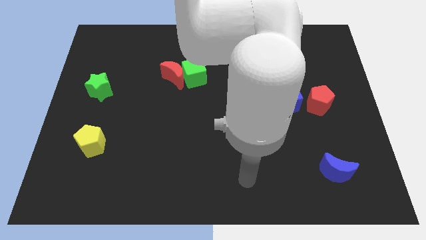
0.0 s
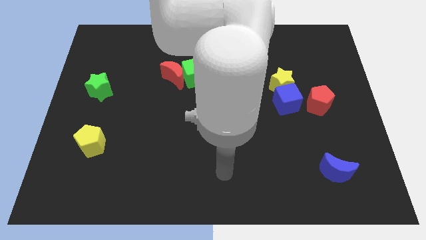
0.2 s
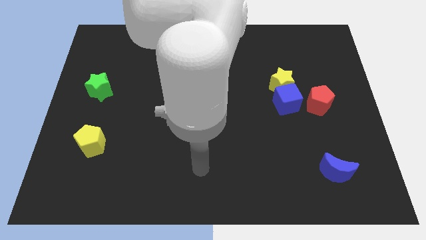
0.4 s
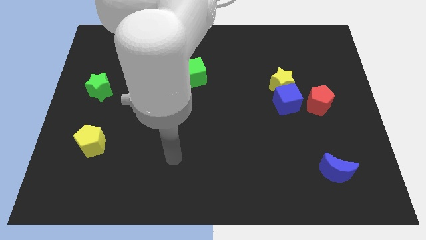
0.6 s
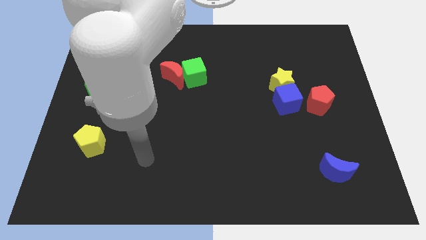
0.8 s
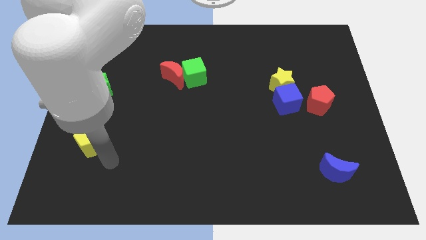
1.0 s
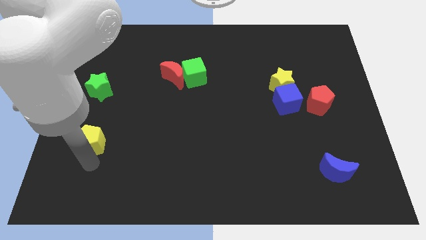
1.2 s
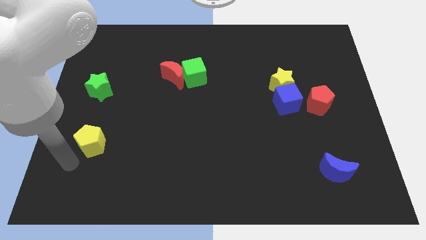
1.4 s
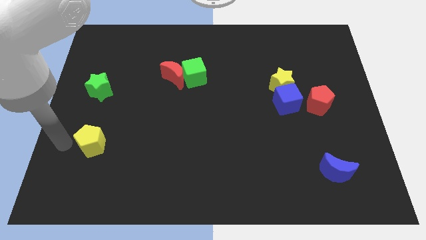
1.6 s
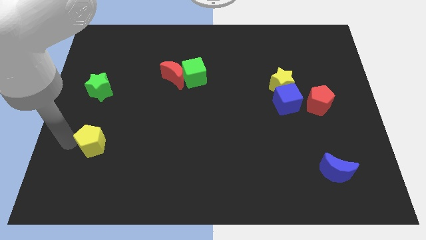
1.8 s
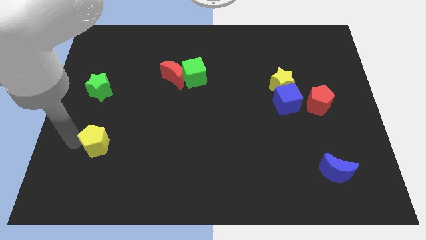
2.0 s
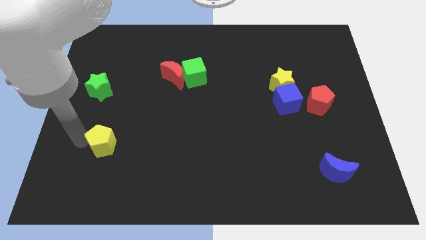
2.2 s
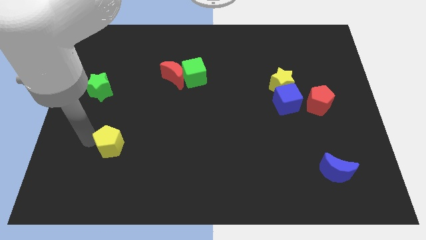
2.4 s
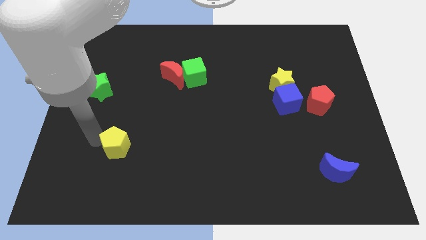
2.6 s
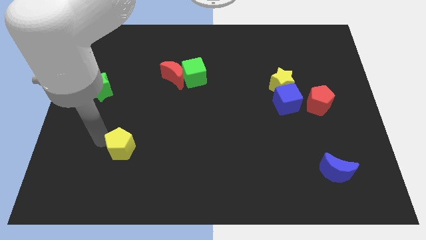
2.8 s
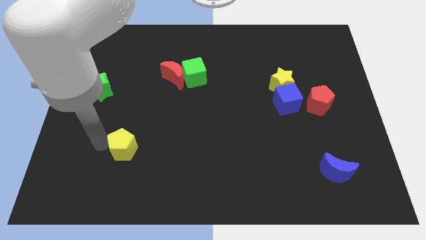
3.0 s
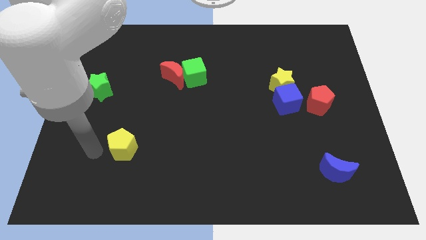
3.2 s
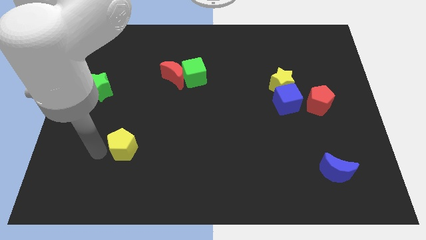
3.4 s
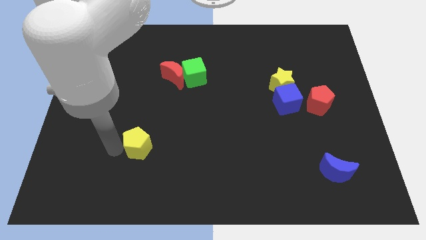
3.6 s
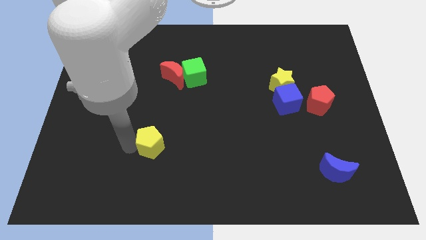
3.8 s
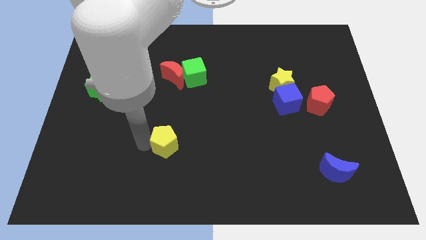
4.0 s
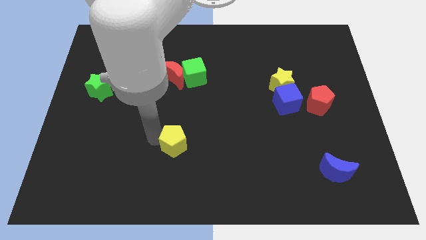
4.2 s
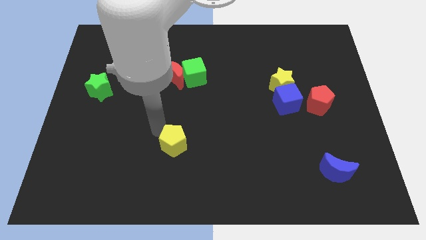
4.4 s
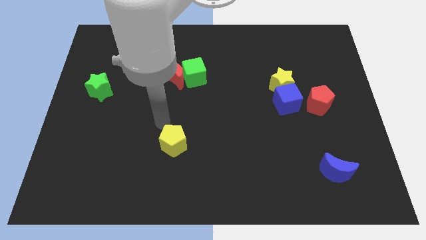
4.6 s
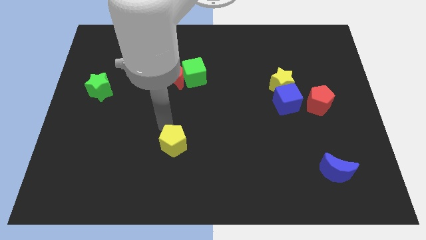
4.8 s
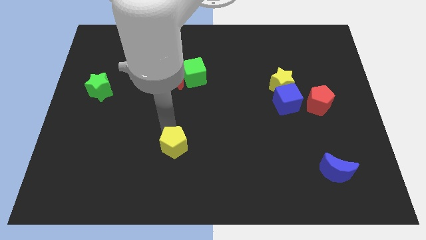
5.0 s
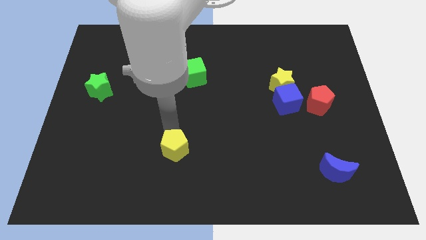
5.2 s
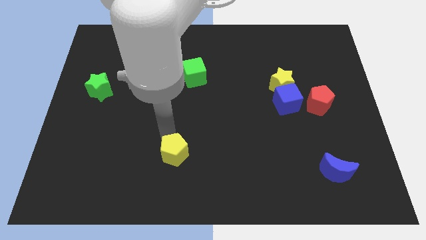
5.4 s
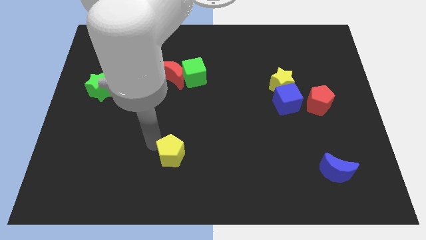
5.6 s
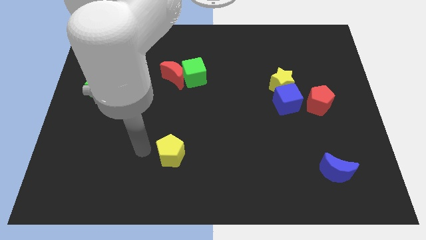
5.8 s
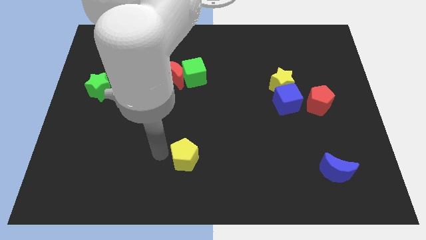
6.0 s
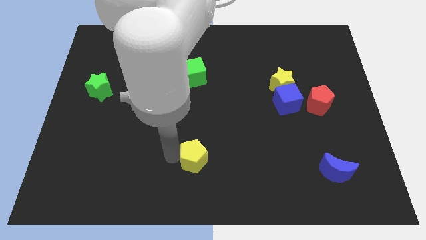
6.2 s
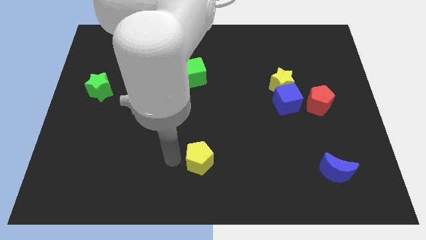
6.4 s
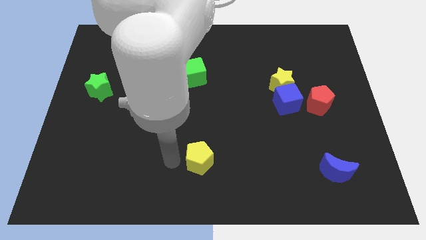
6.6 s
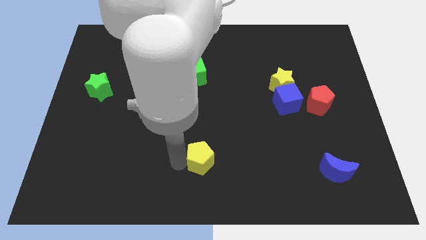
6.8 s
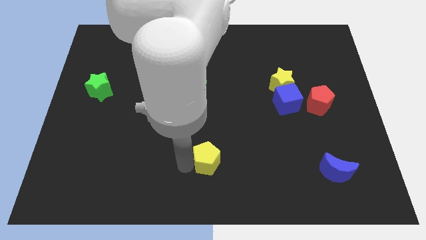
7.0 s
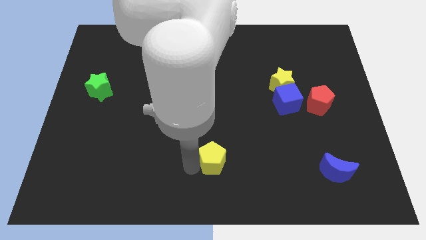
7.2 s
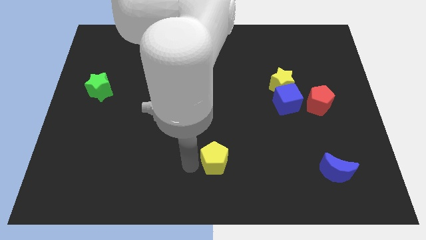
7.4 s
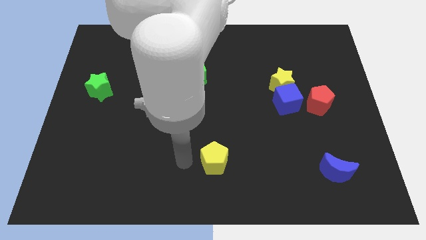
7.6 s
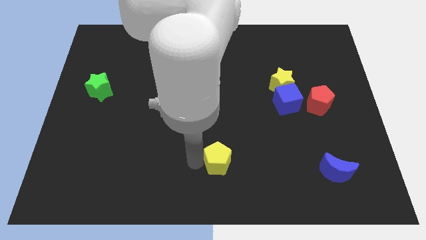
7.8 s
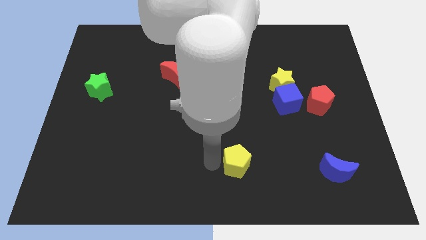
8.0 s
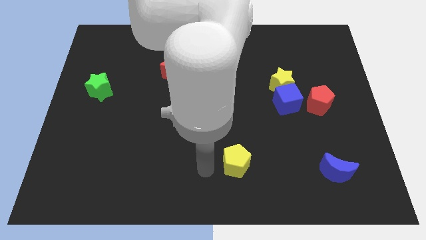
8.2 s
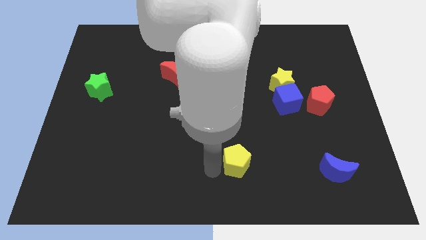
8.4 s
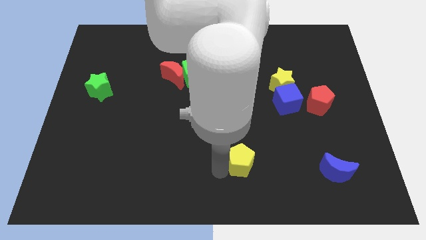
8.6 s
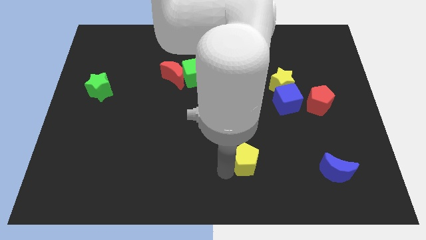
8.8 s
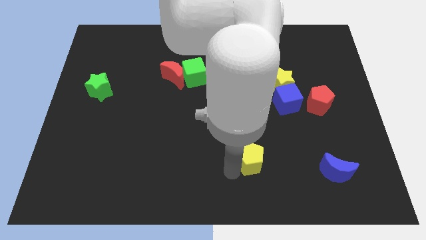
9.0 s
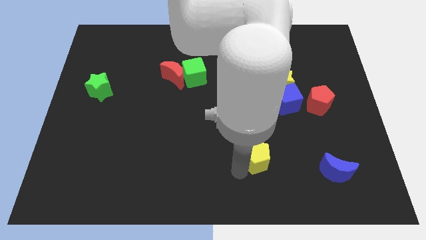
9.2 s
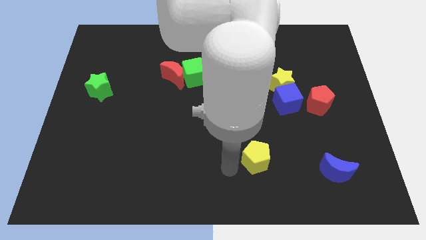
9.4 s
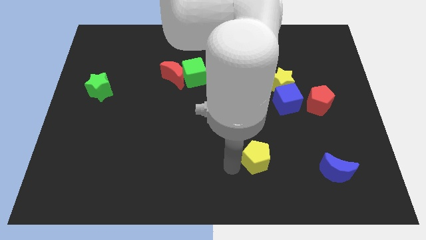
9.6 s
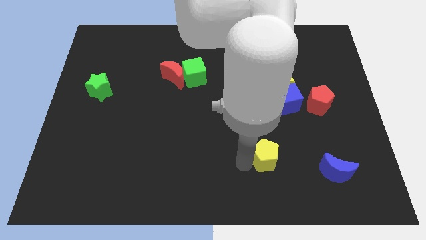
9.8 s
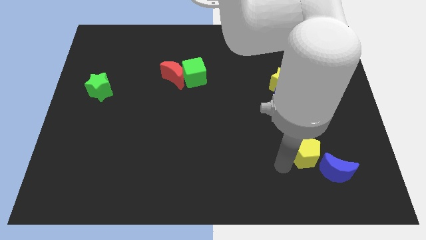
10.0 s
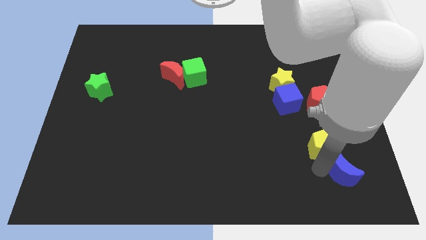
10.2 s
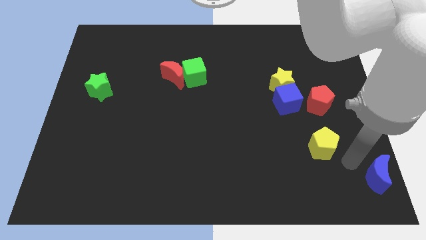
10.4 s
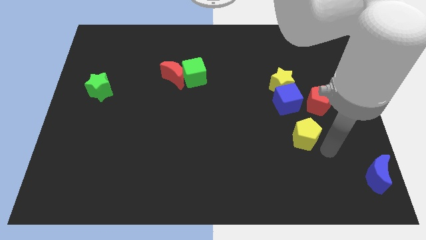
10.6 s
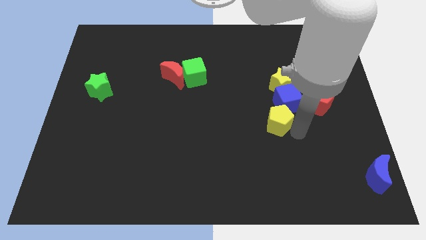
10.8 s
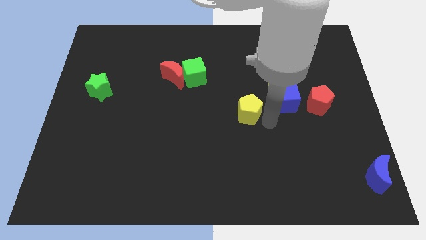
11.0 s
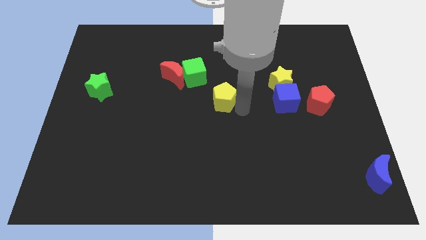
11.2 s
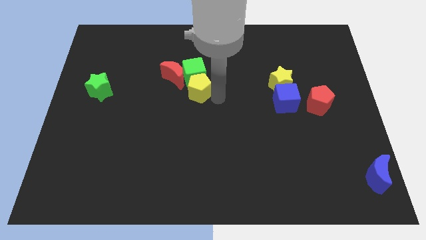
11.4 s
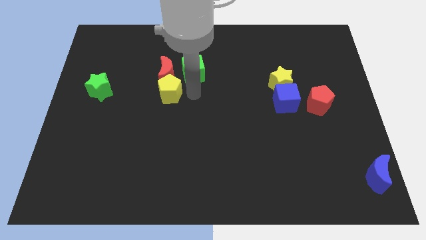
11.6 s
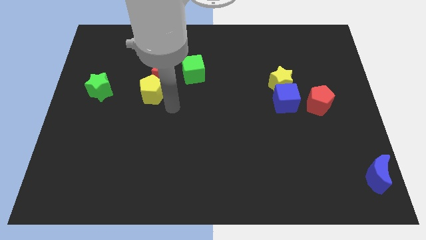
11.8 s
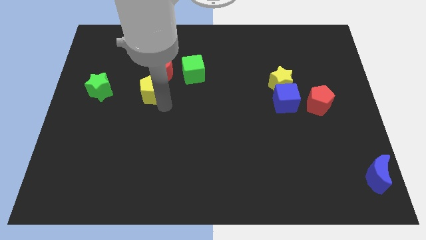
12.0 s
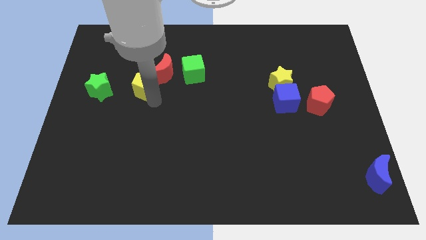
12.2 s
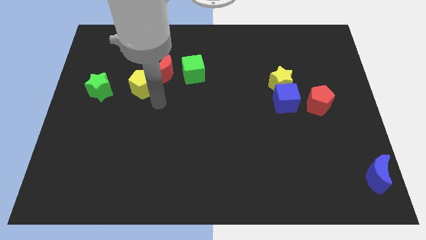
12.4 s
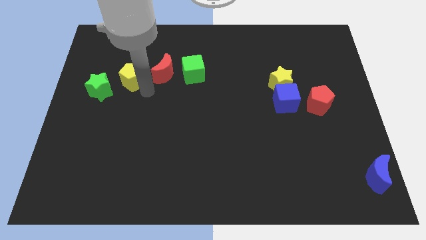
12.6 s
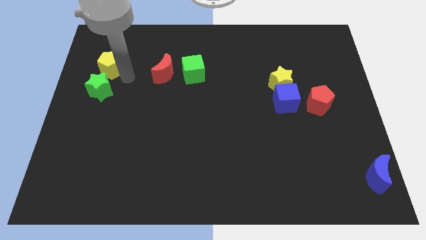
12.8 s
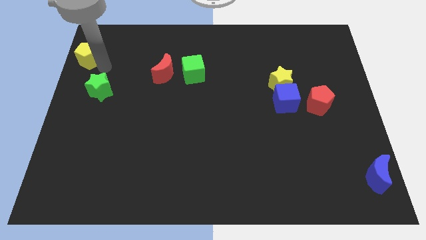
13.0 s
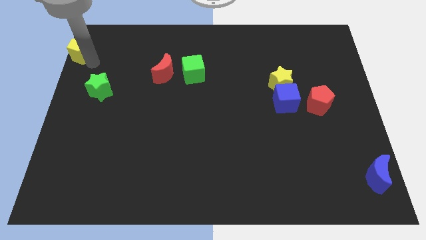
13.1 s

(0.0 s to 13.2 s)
slide the yellow pentagon to the upper left corner

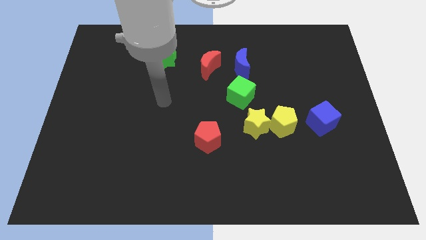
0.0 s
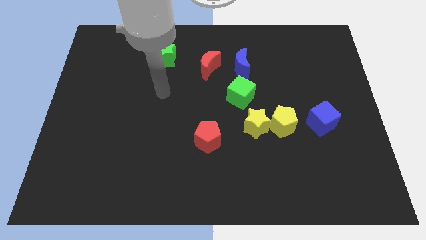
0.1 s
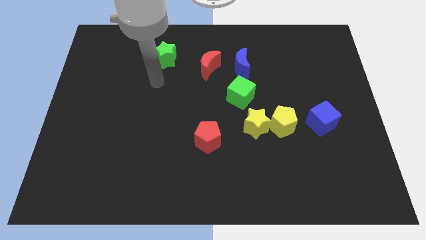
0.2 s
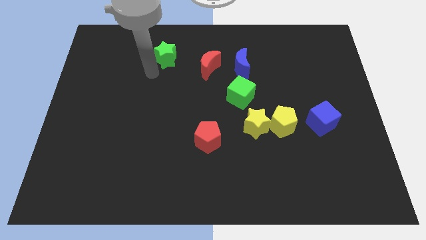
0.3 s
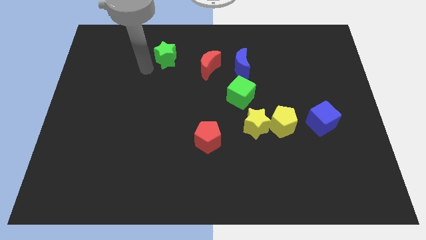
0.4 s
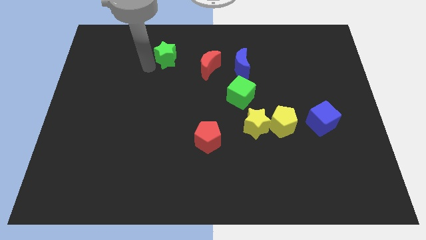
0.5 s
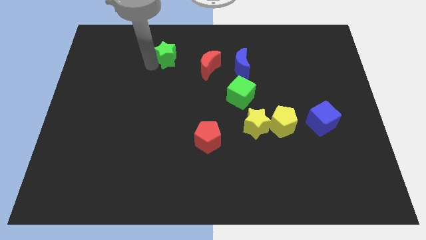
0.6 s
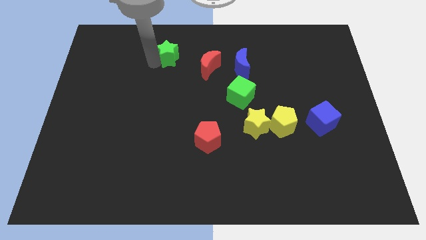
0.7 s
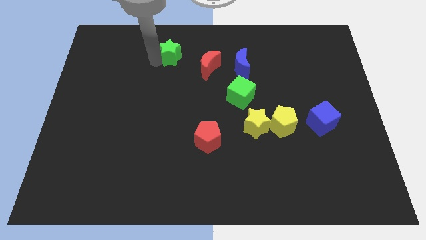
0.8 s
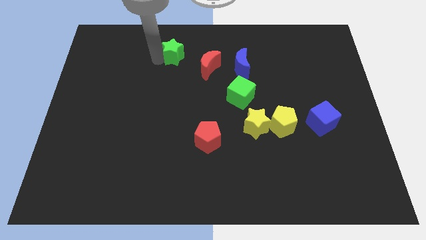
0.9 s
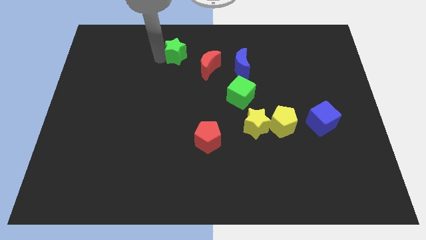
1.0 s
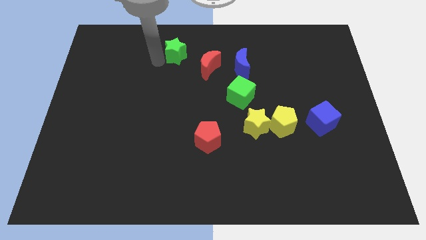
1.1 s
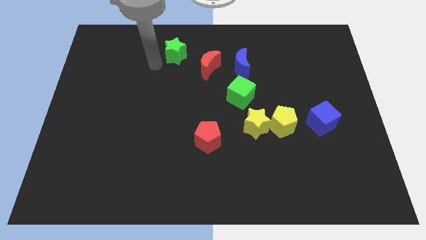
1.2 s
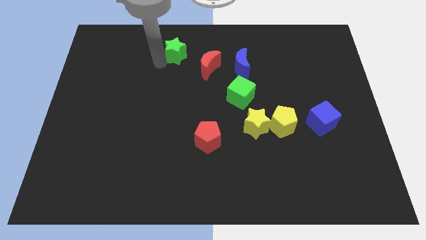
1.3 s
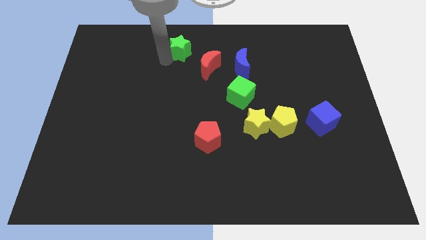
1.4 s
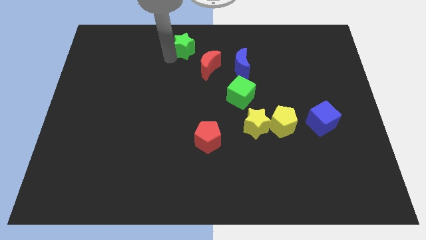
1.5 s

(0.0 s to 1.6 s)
move the green star to the top side
